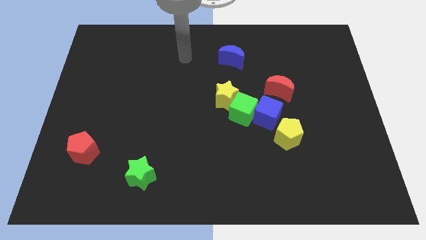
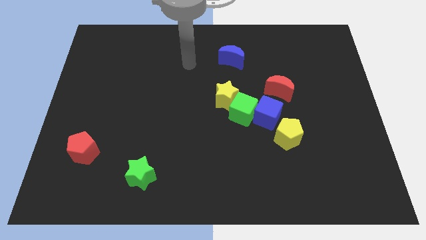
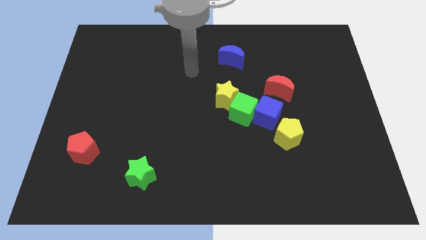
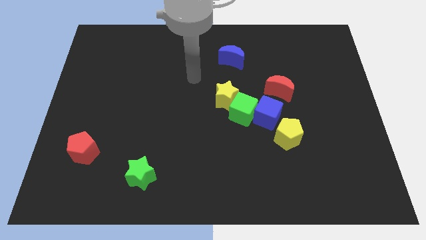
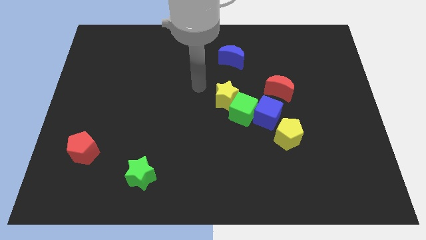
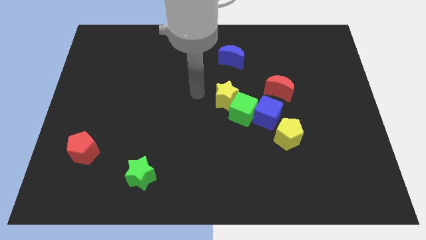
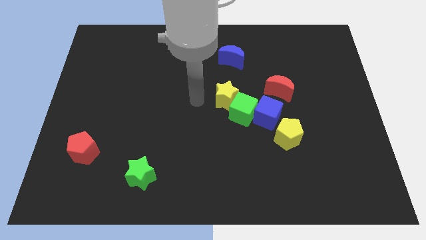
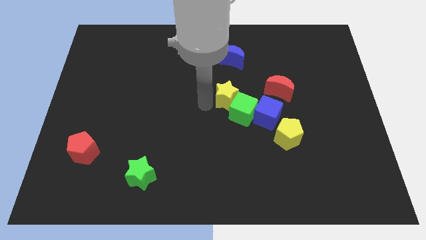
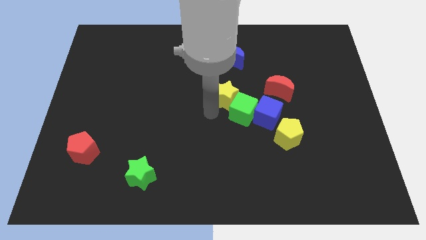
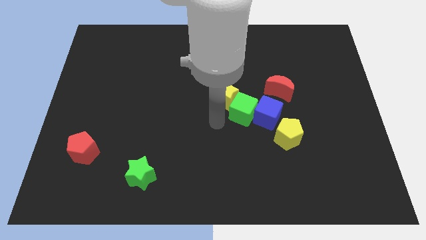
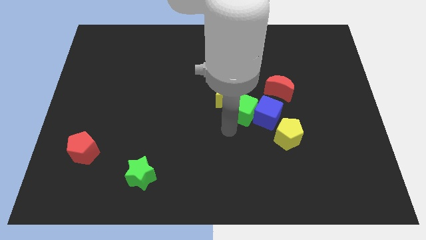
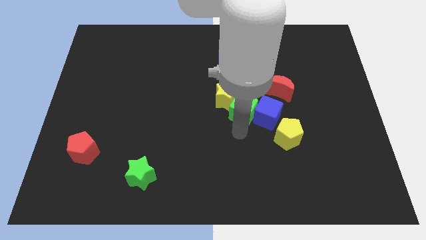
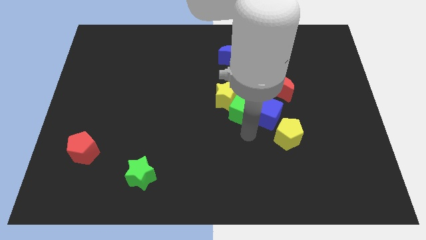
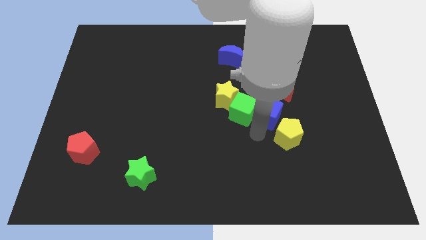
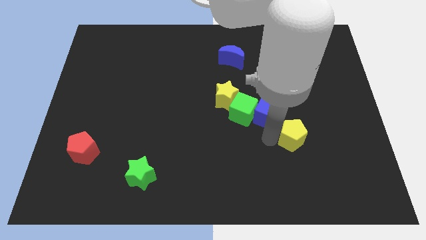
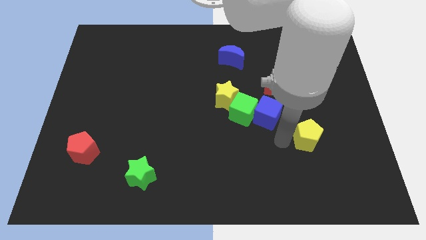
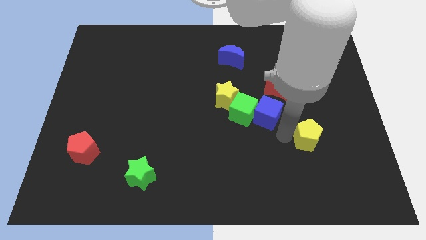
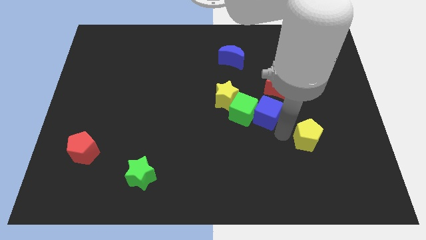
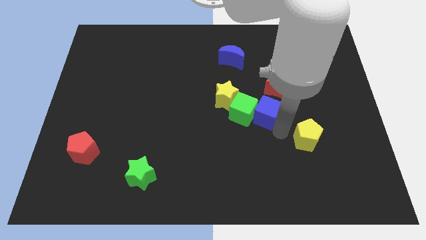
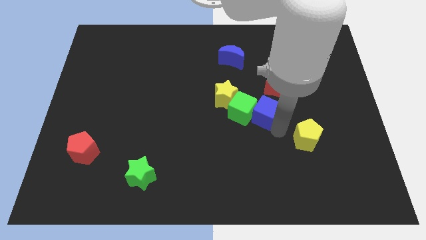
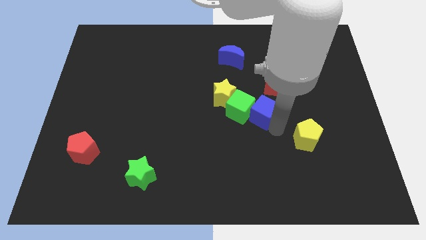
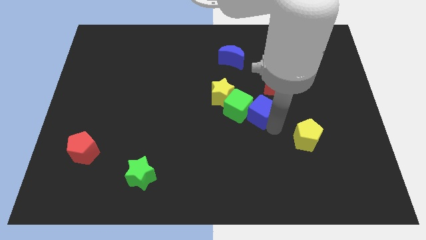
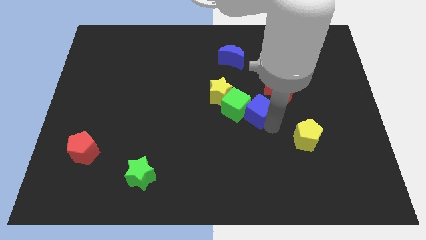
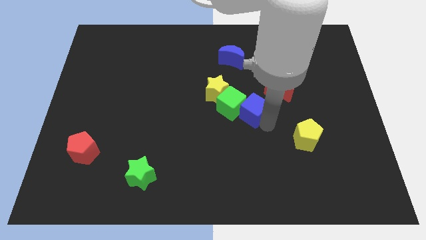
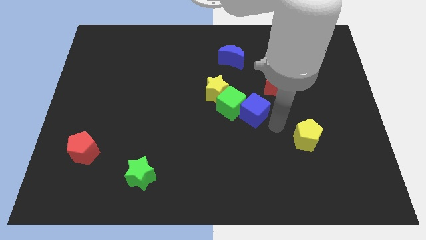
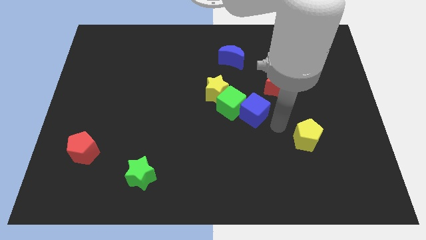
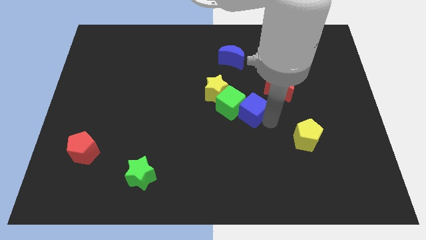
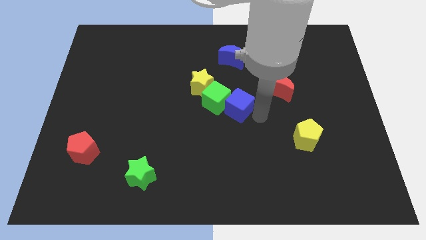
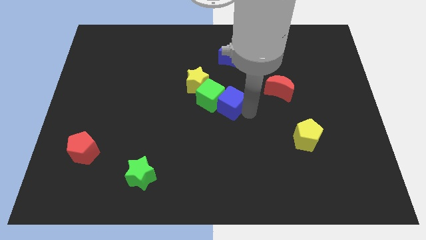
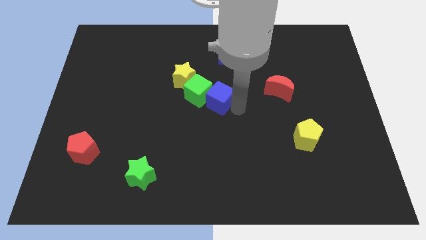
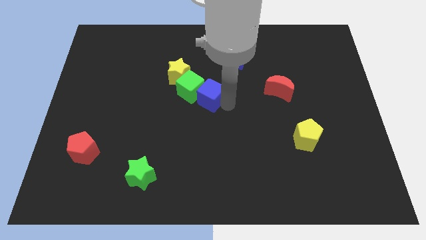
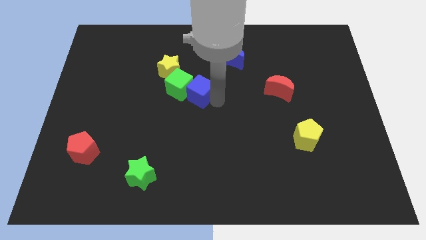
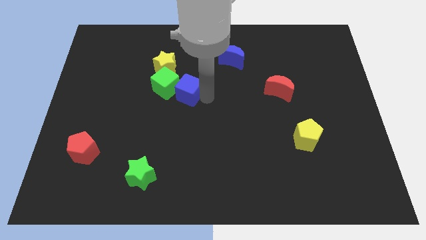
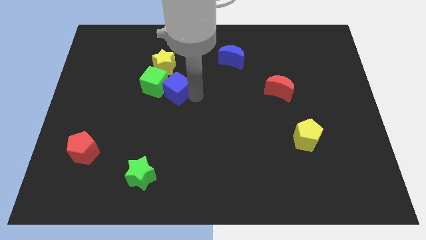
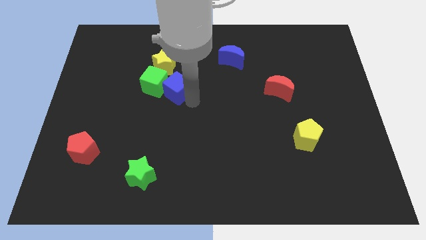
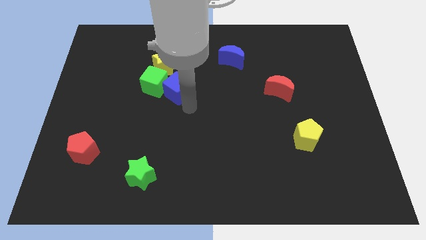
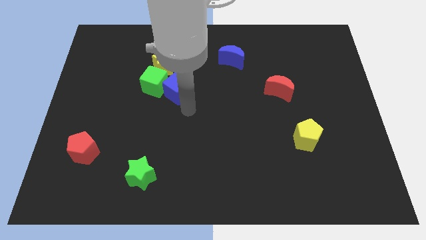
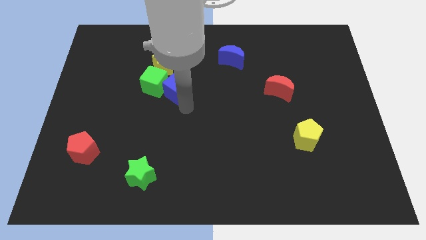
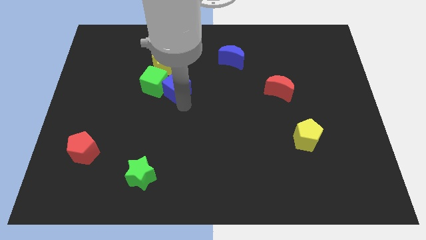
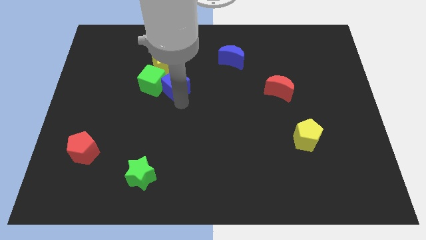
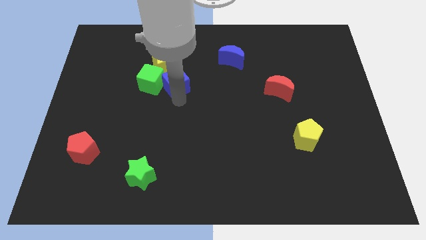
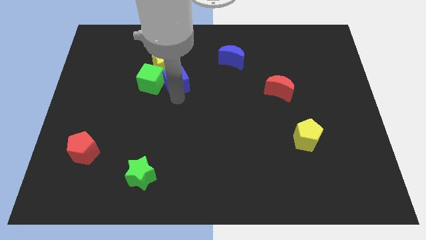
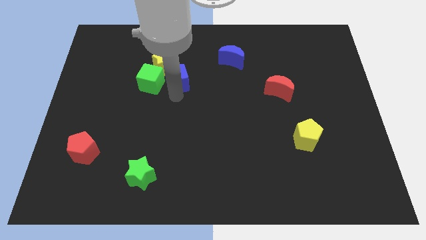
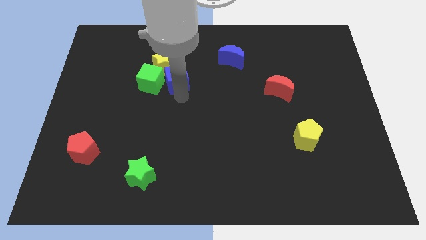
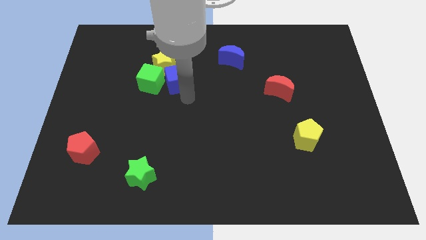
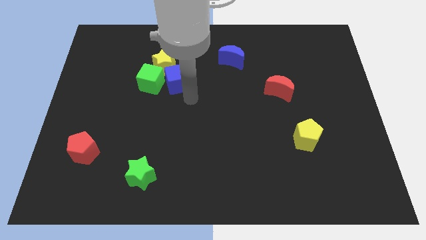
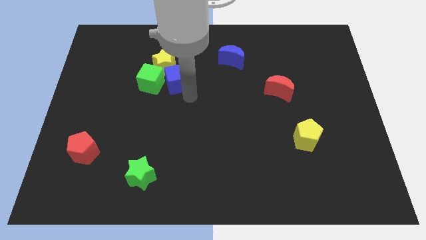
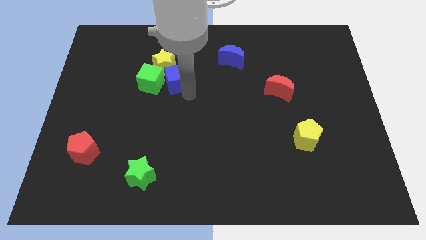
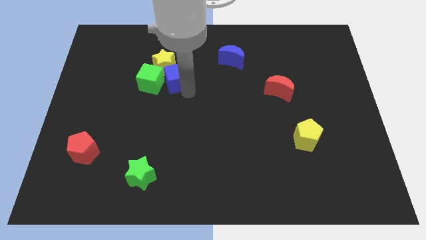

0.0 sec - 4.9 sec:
push the blue cube to the yellow star

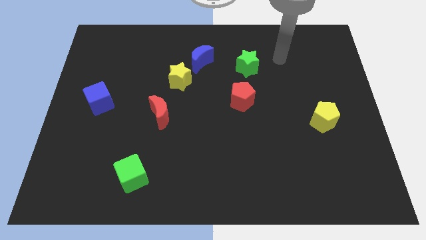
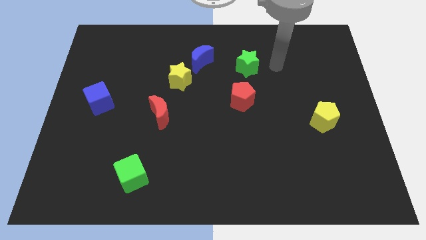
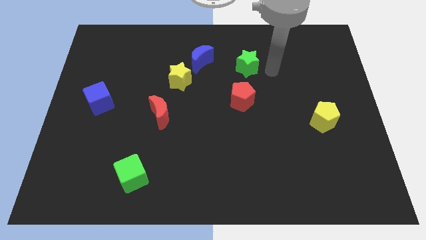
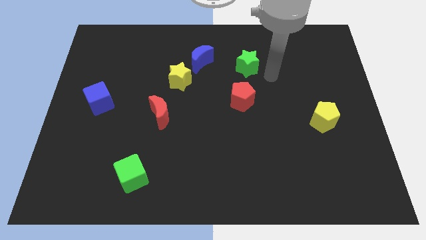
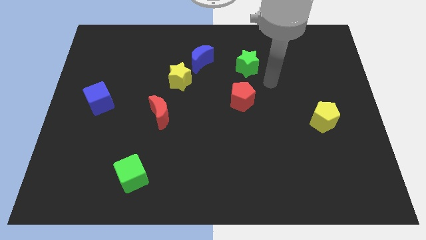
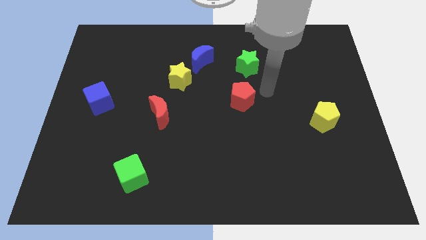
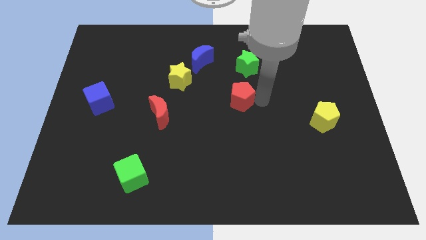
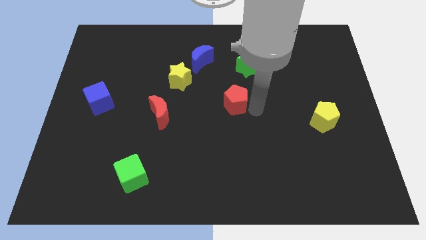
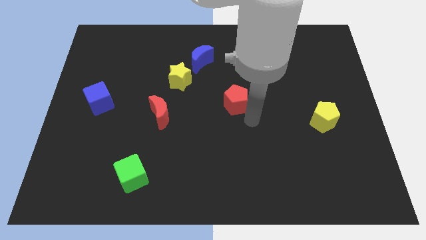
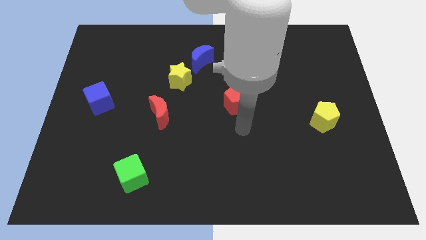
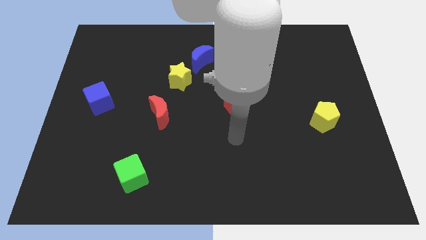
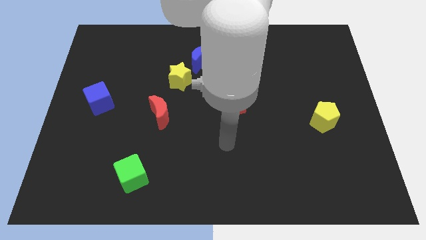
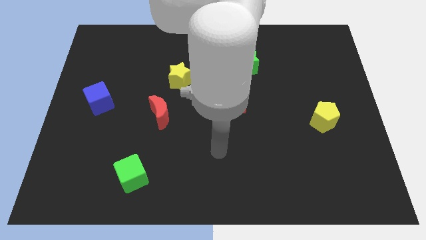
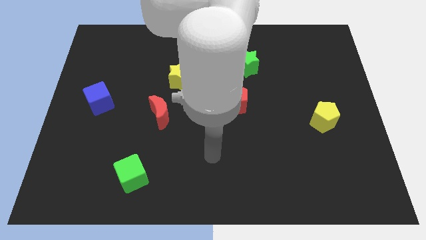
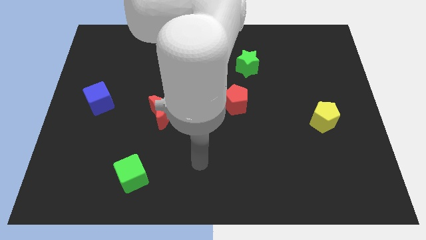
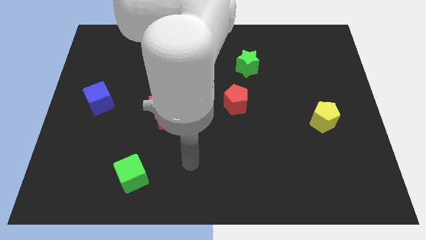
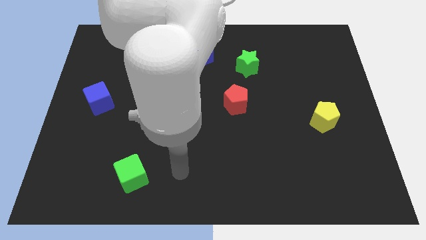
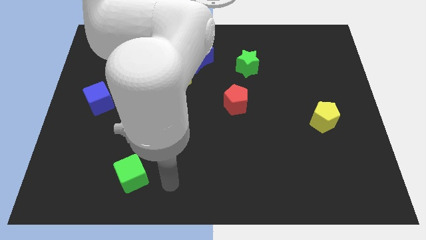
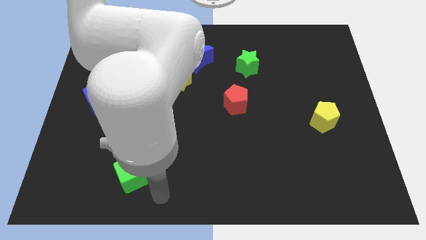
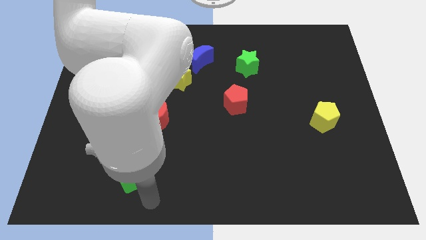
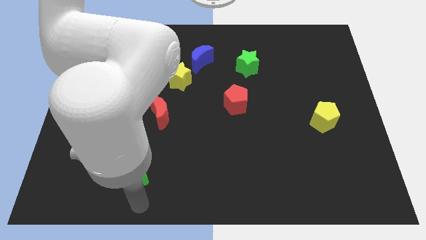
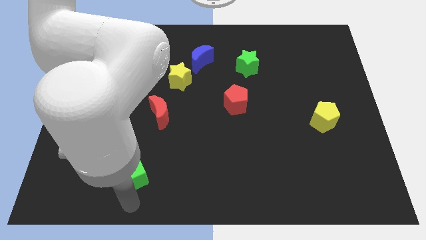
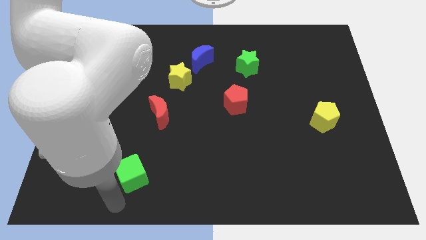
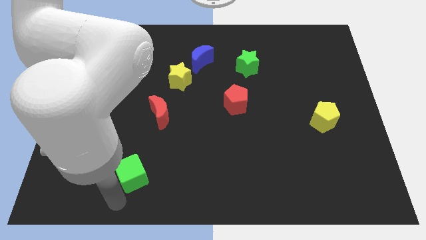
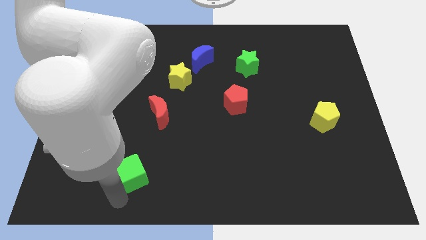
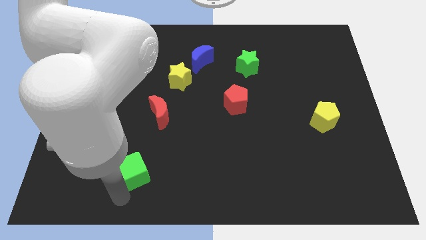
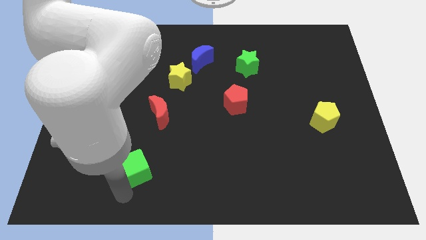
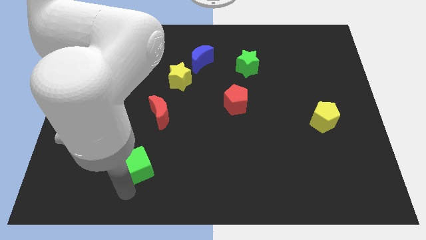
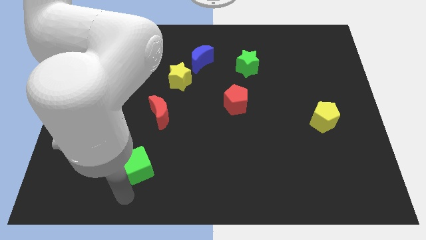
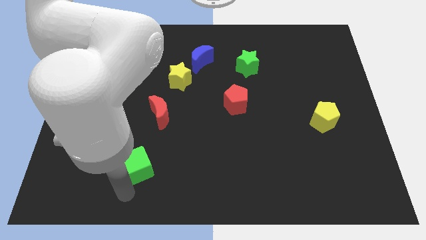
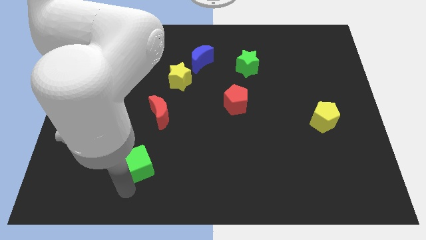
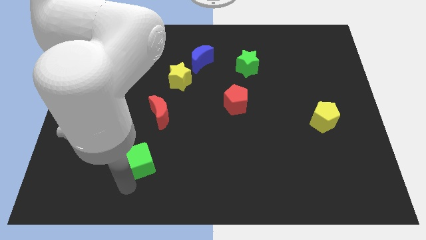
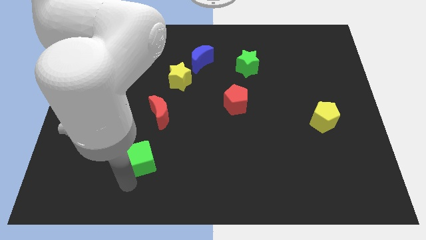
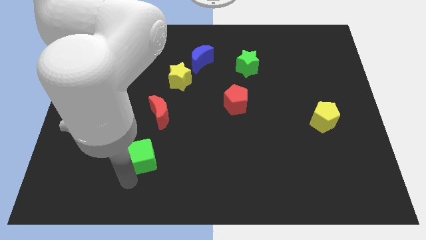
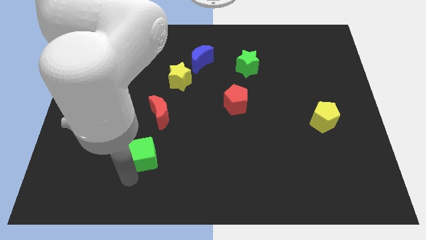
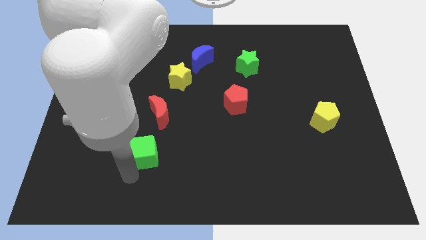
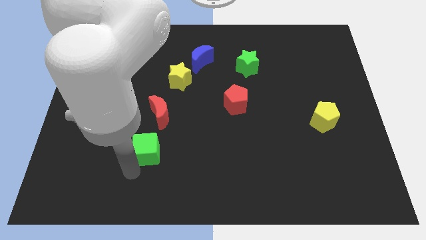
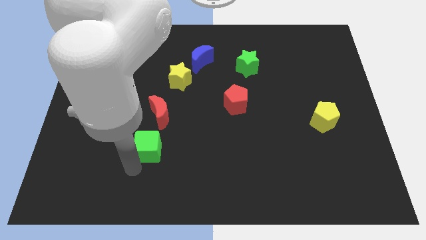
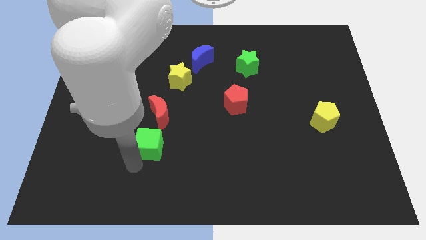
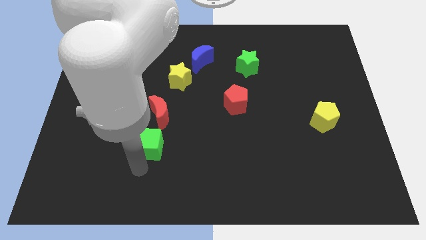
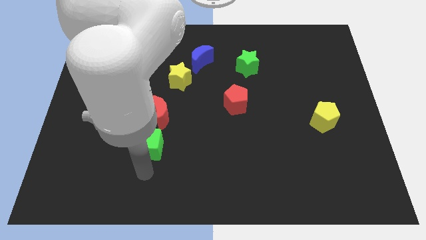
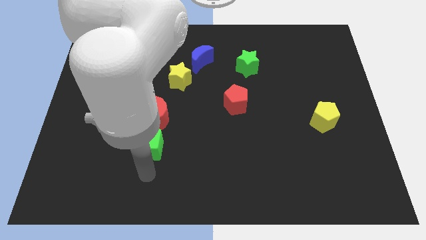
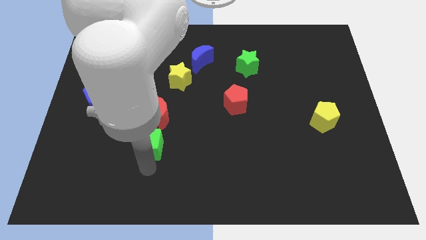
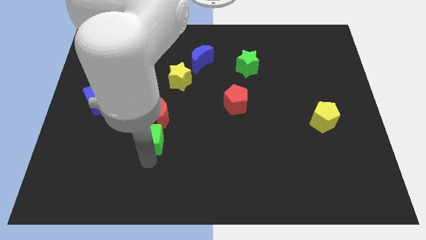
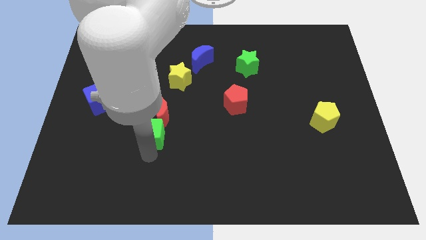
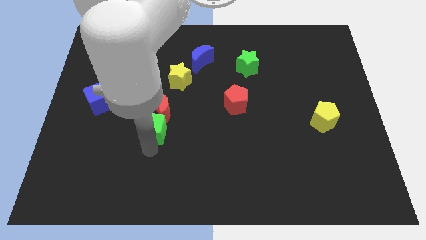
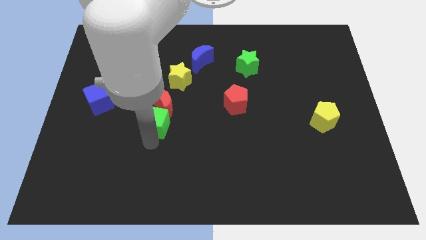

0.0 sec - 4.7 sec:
move the green cube to the red moon
